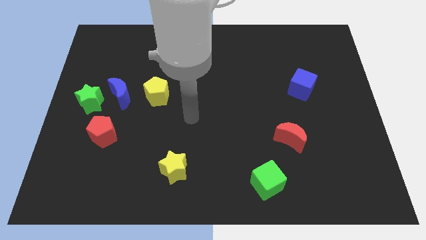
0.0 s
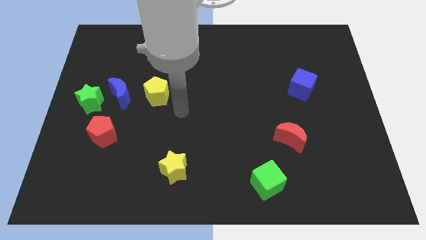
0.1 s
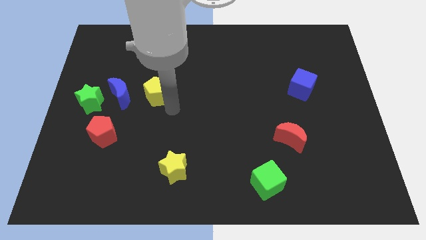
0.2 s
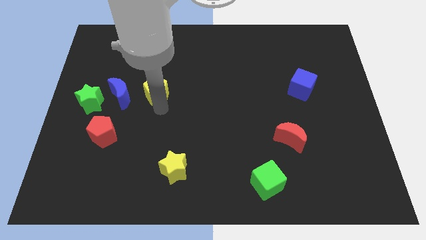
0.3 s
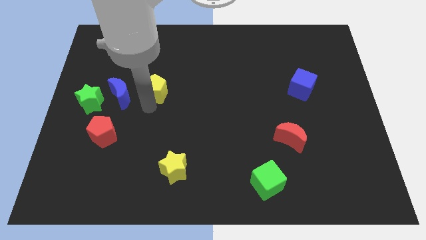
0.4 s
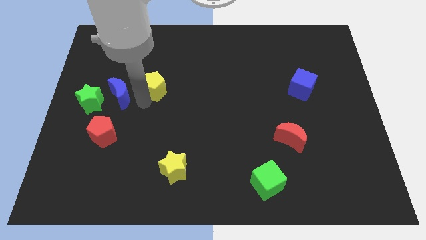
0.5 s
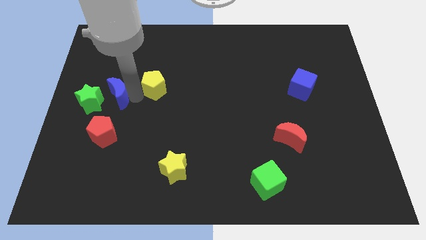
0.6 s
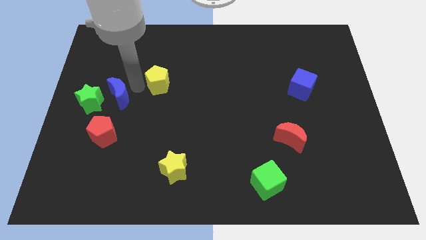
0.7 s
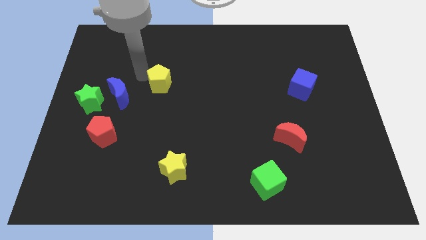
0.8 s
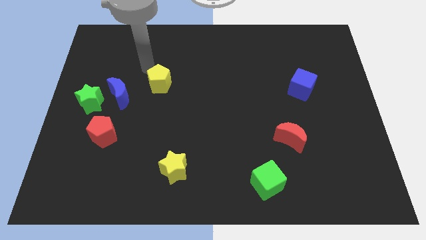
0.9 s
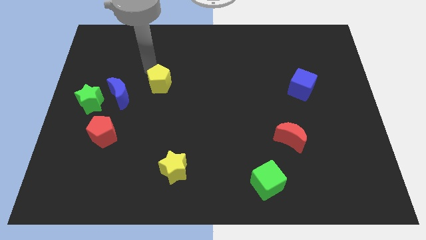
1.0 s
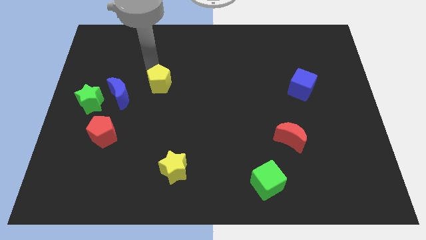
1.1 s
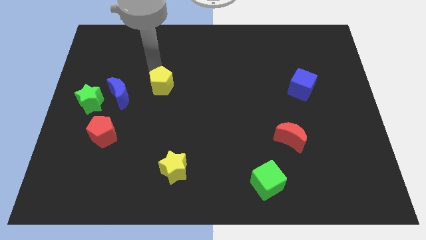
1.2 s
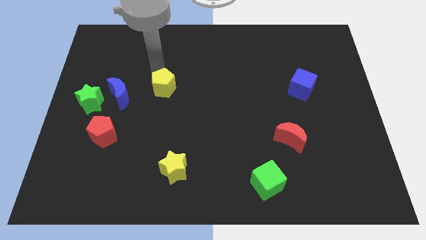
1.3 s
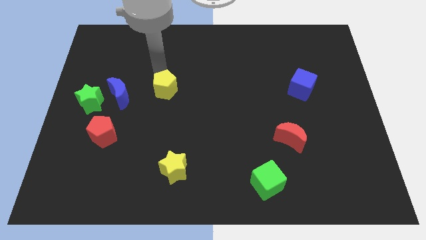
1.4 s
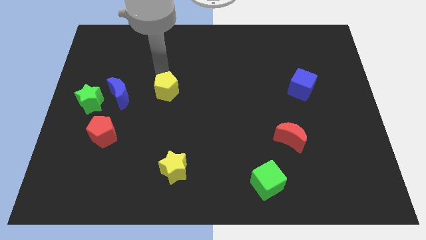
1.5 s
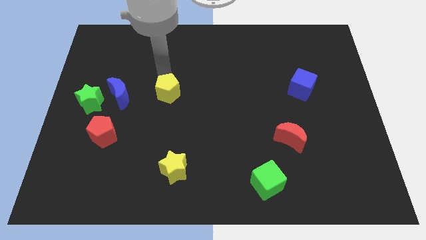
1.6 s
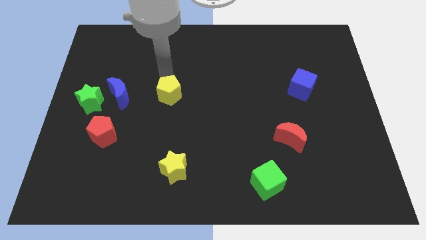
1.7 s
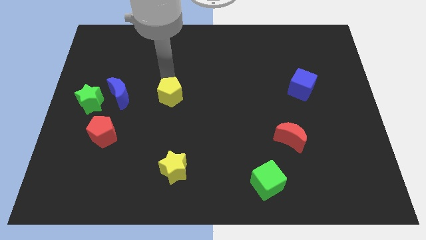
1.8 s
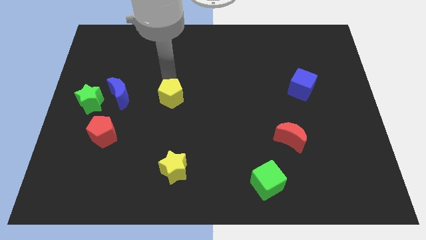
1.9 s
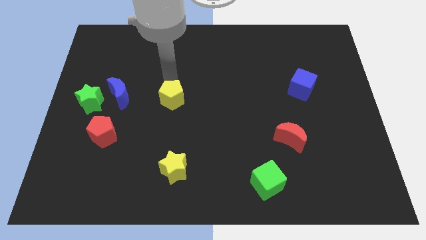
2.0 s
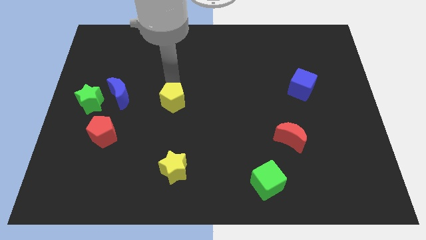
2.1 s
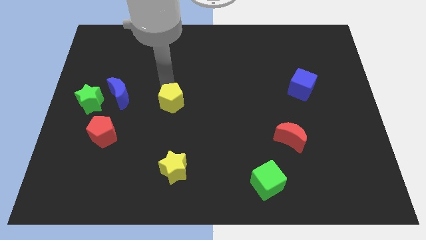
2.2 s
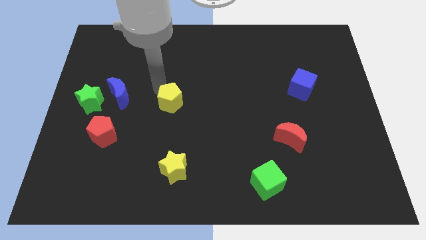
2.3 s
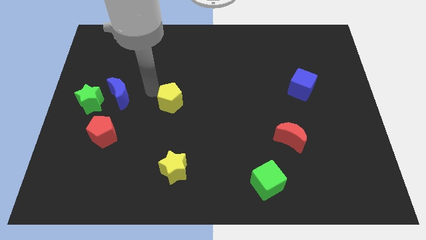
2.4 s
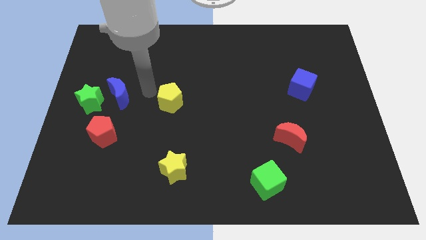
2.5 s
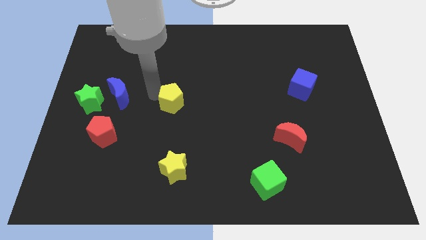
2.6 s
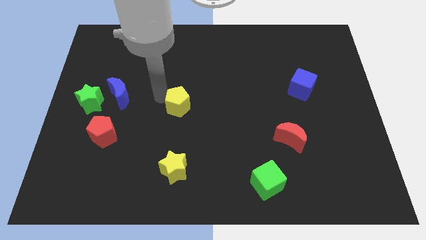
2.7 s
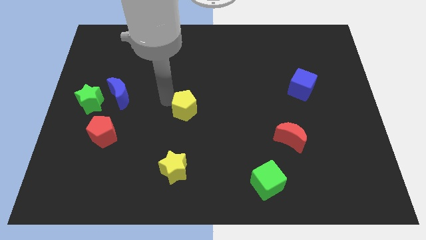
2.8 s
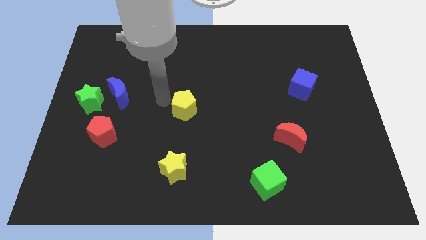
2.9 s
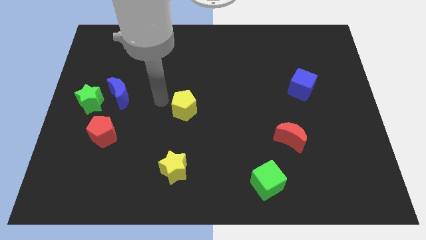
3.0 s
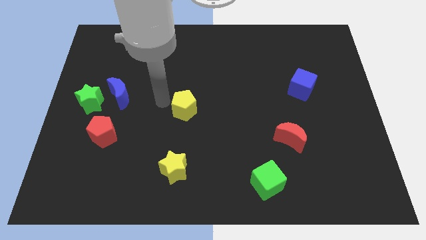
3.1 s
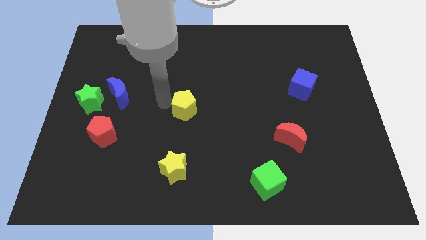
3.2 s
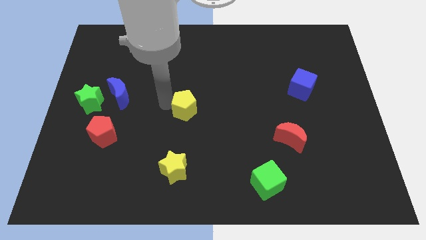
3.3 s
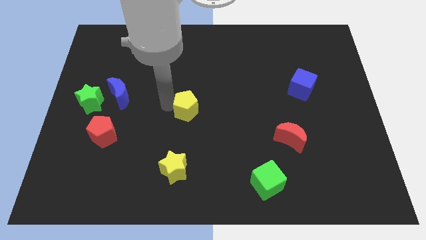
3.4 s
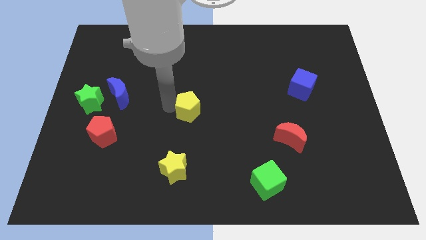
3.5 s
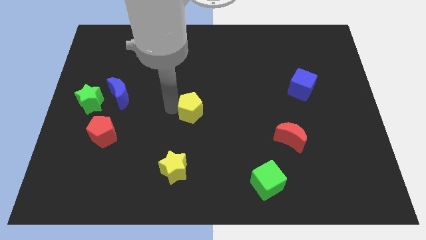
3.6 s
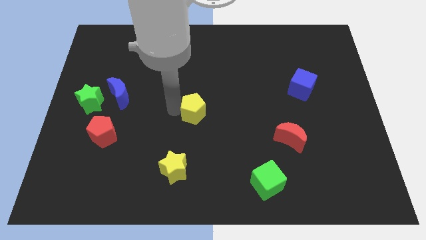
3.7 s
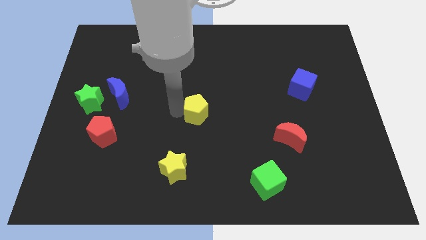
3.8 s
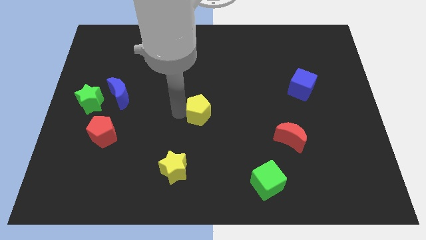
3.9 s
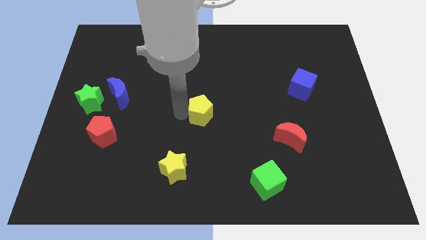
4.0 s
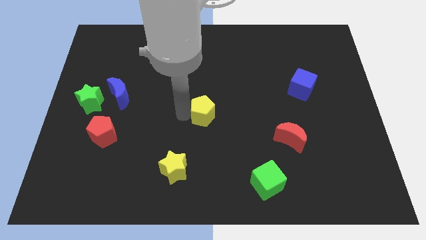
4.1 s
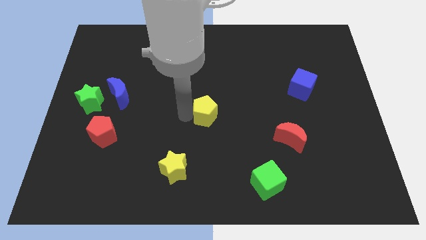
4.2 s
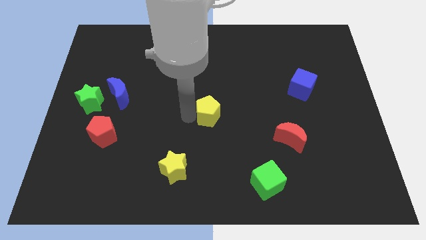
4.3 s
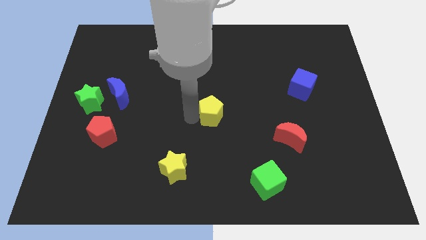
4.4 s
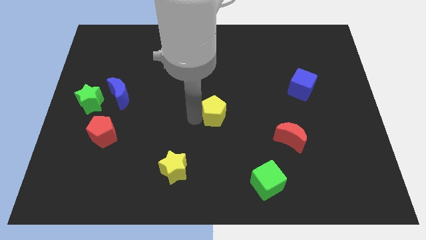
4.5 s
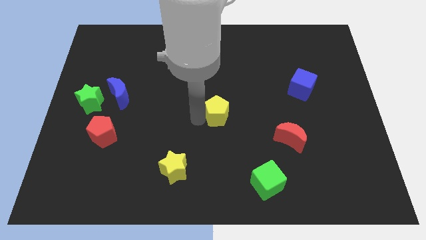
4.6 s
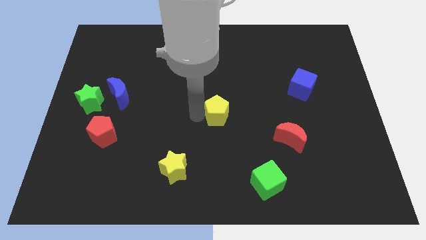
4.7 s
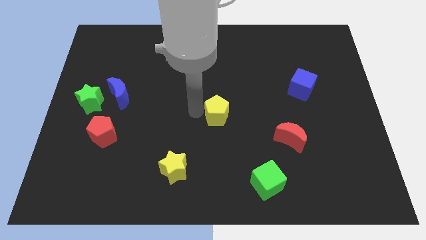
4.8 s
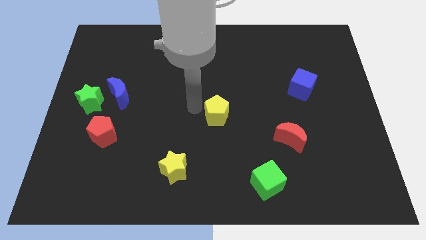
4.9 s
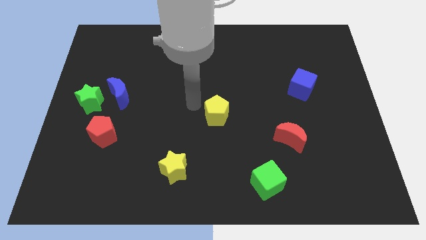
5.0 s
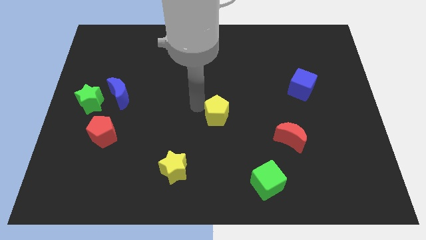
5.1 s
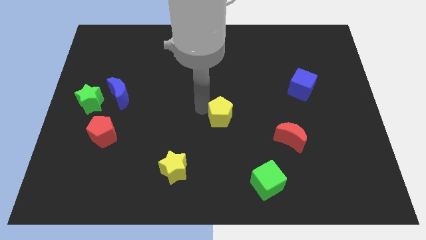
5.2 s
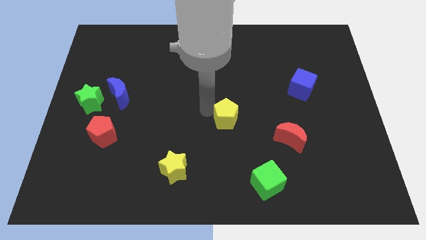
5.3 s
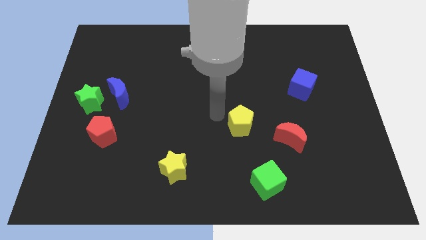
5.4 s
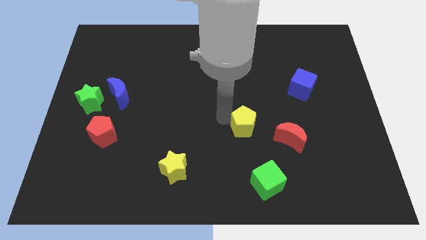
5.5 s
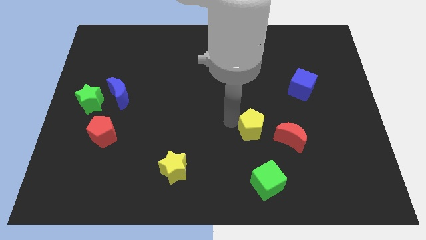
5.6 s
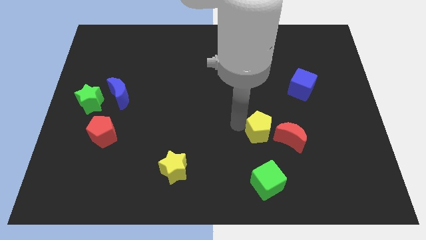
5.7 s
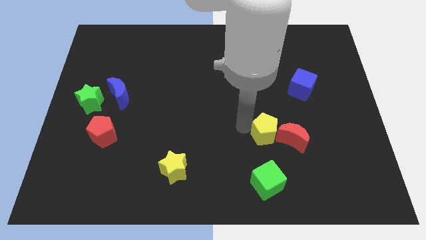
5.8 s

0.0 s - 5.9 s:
push the yellow pentagon next to the red moon

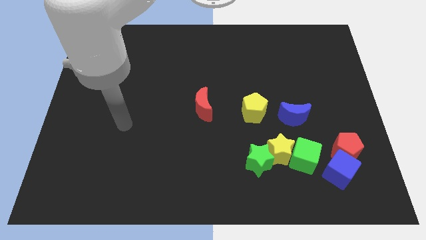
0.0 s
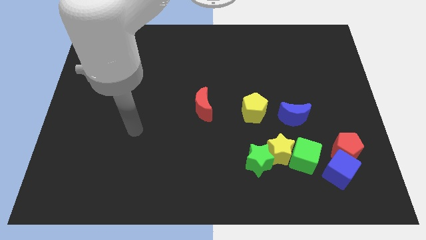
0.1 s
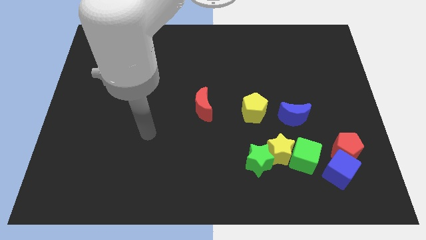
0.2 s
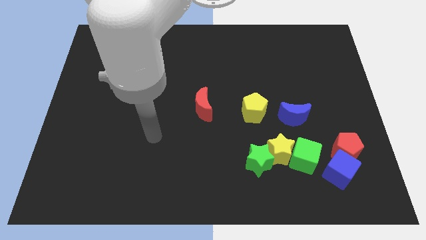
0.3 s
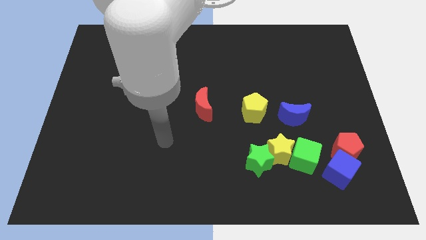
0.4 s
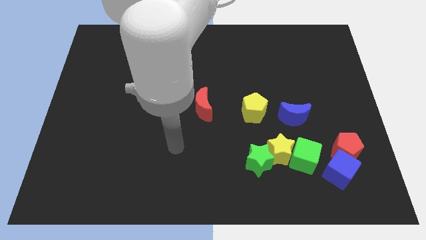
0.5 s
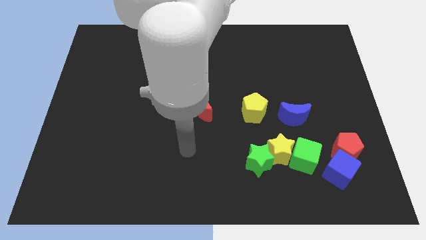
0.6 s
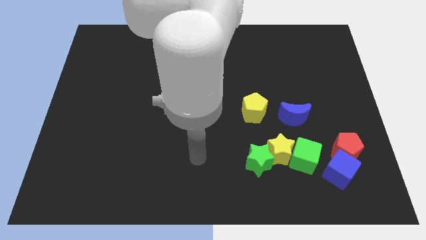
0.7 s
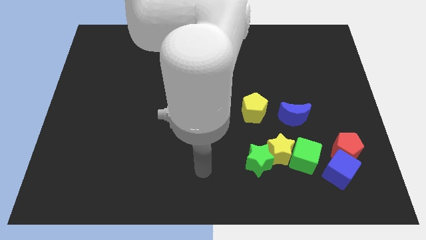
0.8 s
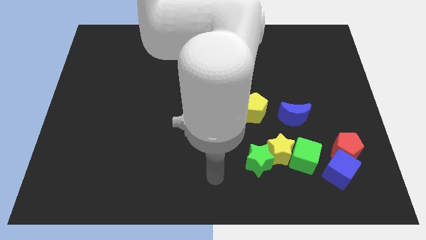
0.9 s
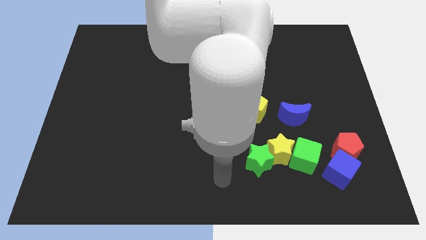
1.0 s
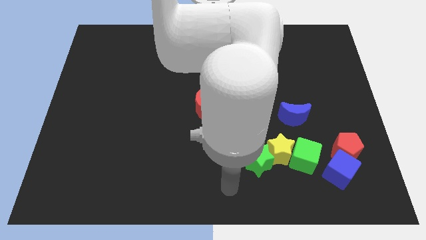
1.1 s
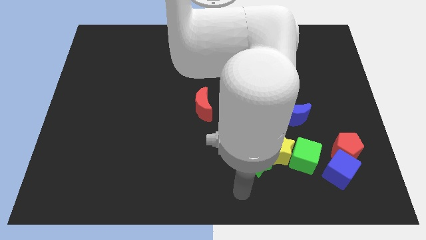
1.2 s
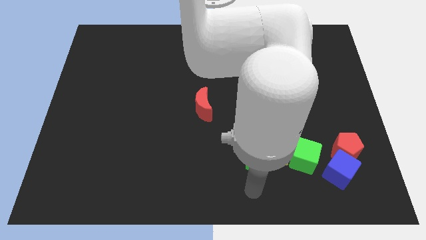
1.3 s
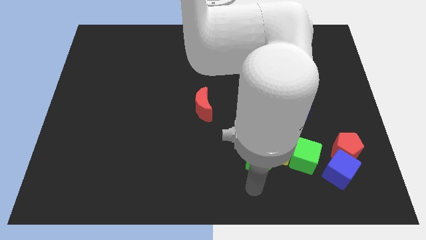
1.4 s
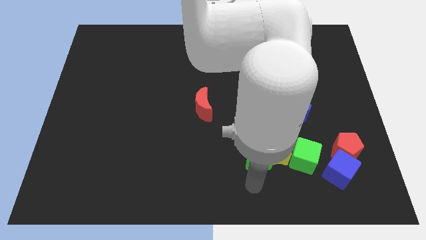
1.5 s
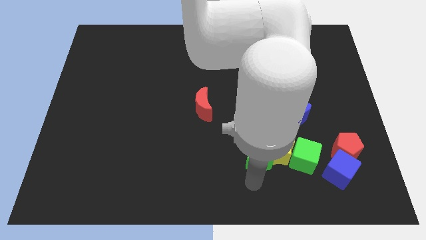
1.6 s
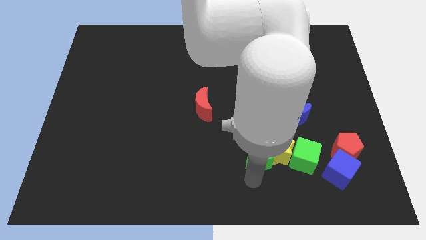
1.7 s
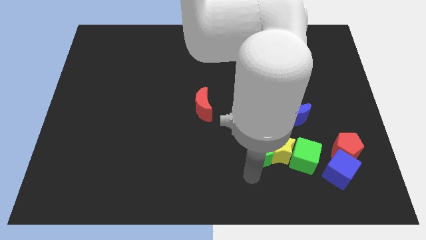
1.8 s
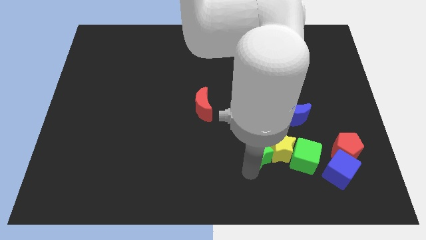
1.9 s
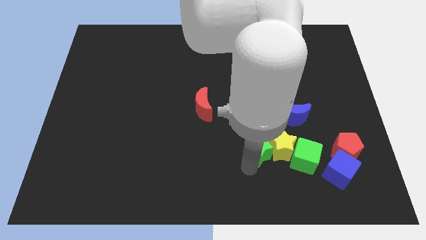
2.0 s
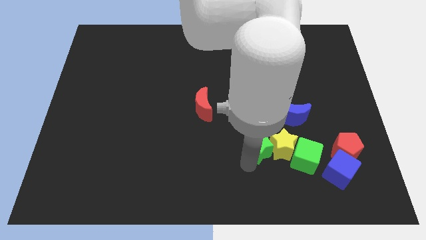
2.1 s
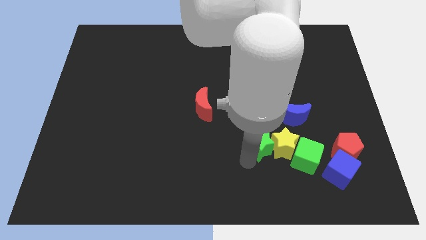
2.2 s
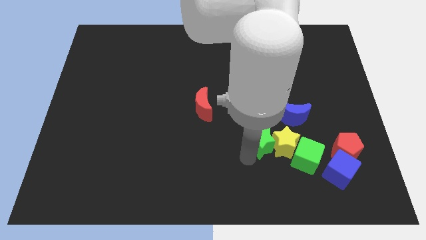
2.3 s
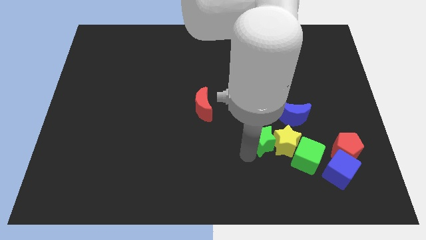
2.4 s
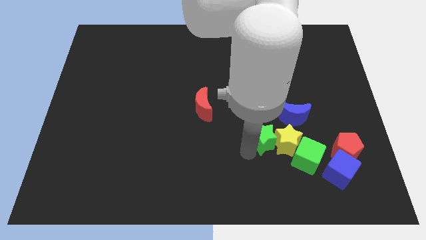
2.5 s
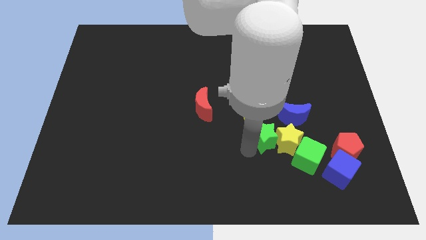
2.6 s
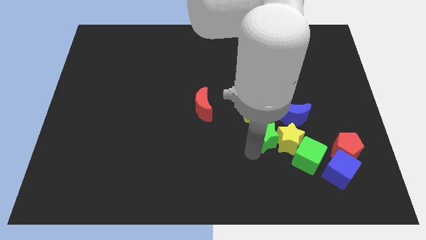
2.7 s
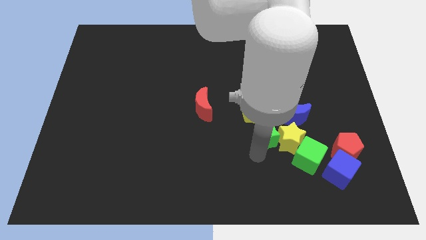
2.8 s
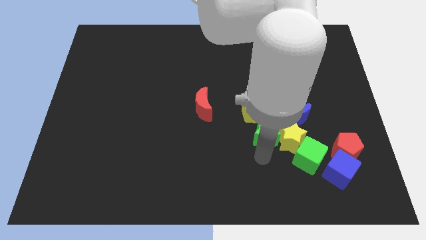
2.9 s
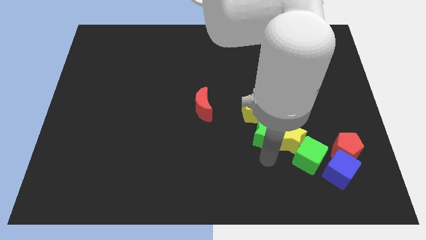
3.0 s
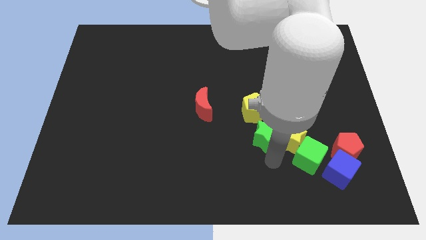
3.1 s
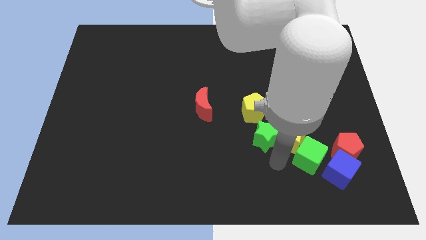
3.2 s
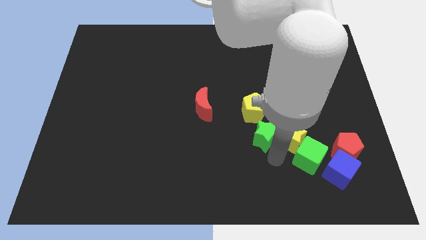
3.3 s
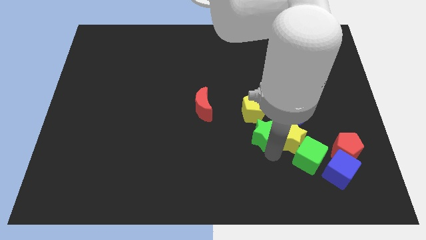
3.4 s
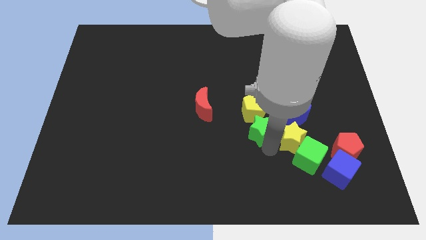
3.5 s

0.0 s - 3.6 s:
push the green star next to the yellow pentagon
